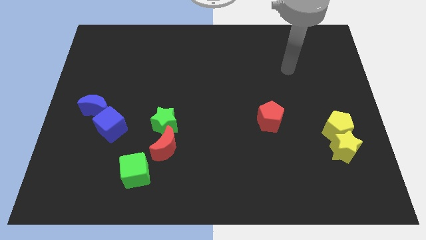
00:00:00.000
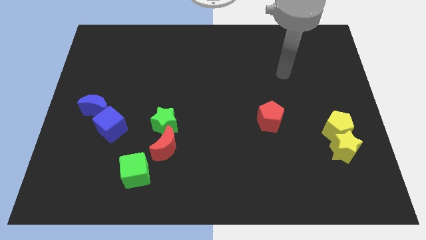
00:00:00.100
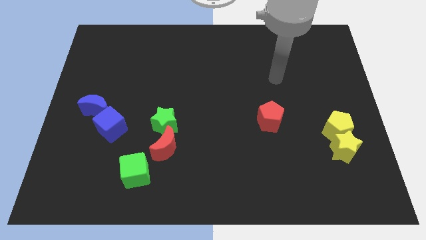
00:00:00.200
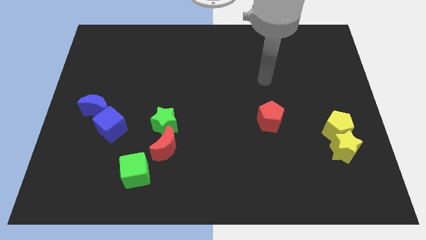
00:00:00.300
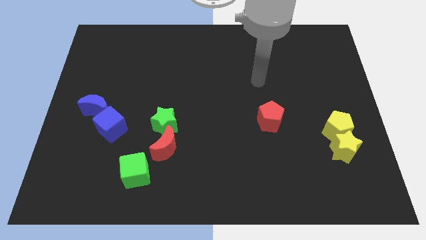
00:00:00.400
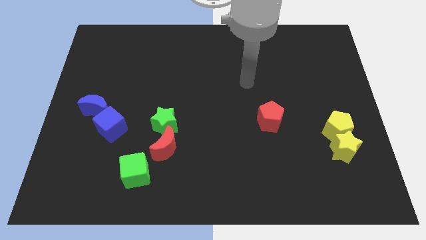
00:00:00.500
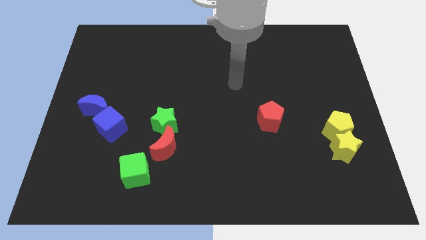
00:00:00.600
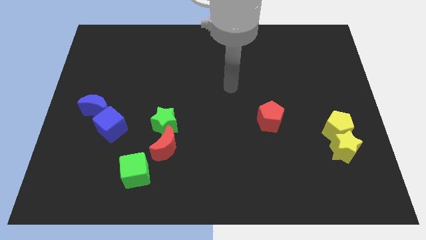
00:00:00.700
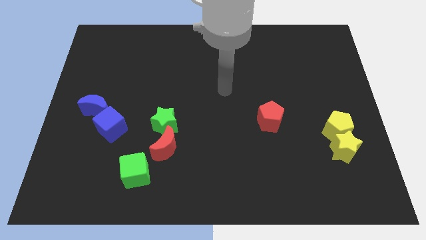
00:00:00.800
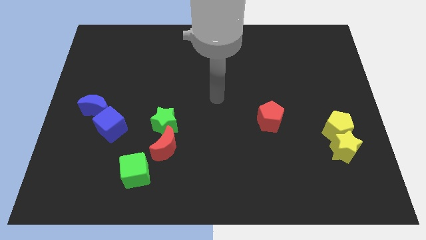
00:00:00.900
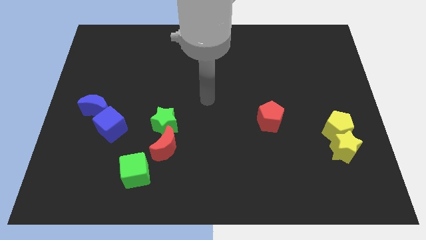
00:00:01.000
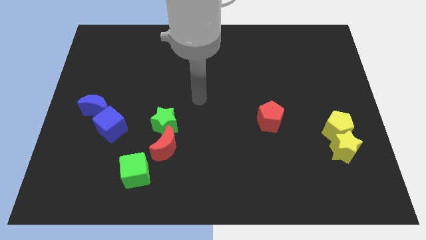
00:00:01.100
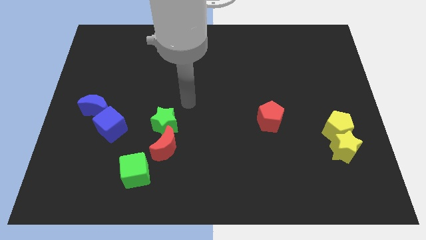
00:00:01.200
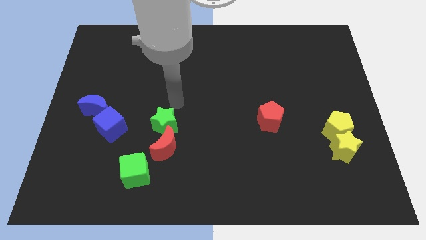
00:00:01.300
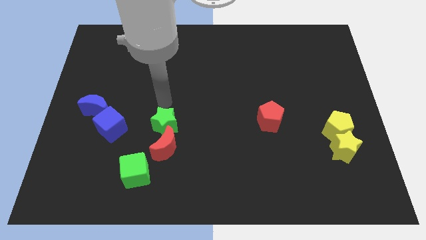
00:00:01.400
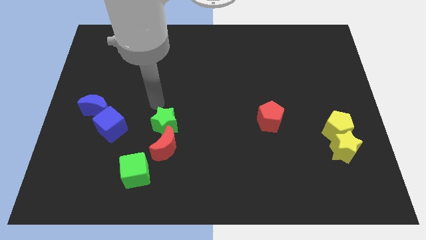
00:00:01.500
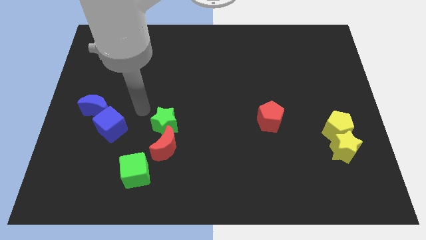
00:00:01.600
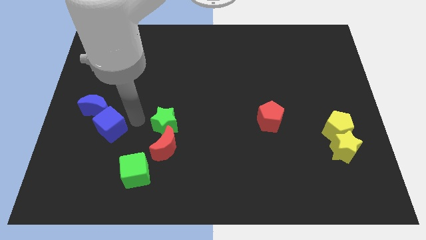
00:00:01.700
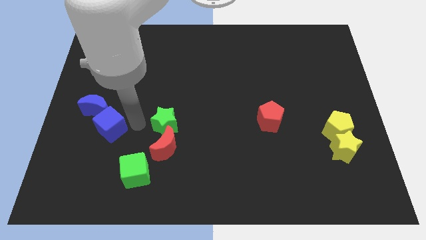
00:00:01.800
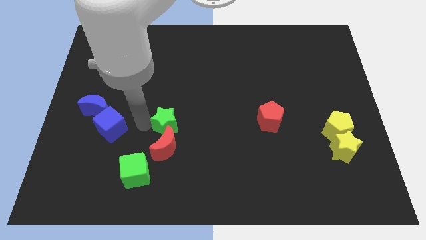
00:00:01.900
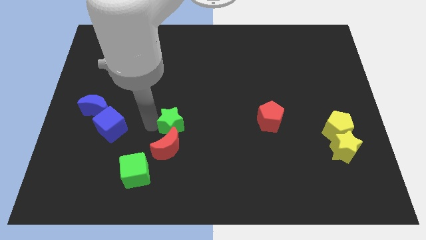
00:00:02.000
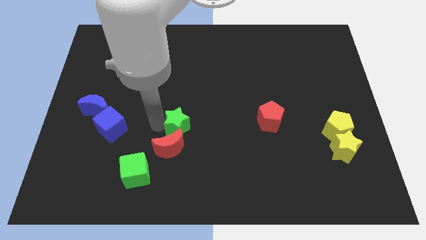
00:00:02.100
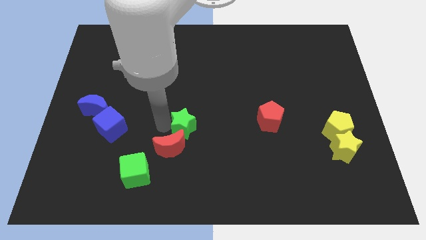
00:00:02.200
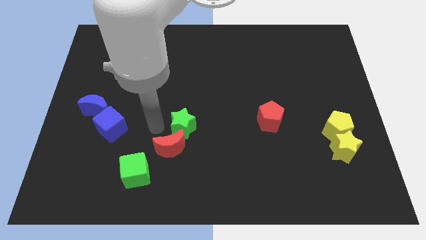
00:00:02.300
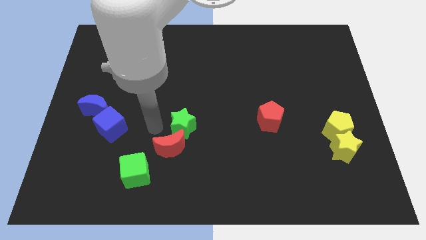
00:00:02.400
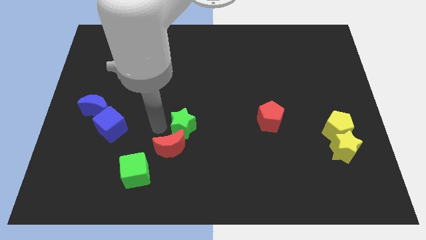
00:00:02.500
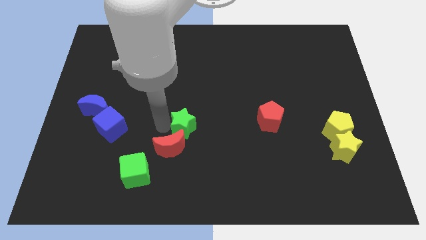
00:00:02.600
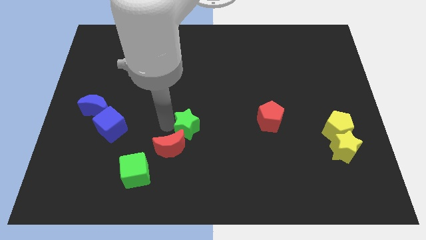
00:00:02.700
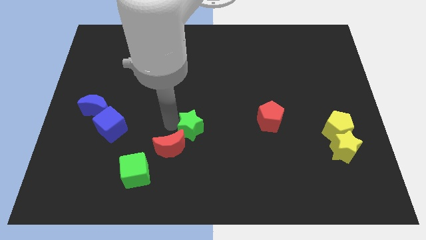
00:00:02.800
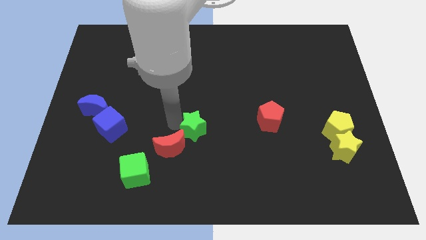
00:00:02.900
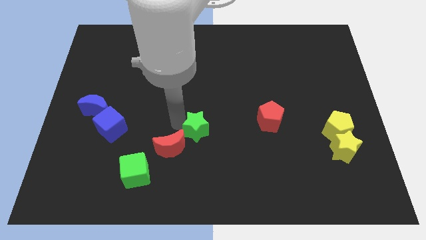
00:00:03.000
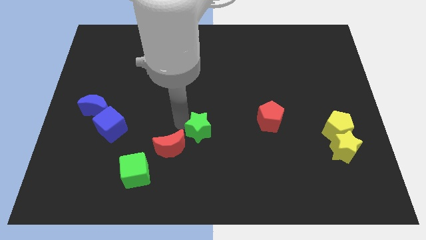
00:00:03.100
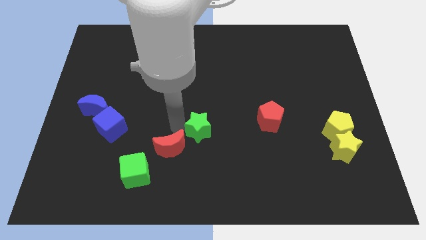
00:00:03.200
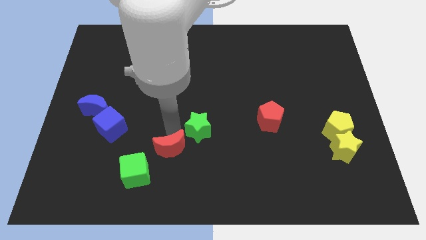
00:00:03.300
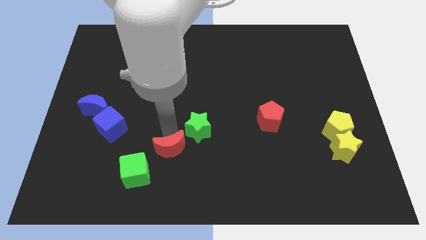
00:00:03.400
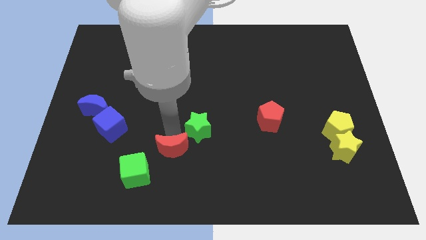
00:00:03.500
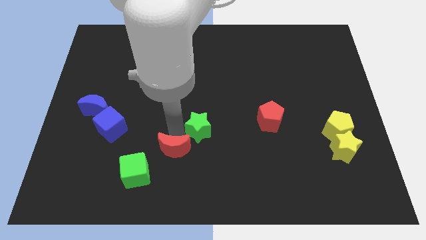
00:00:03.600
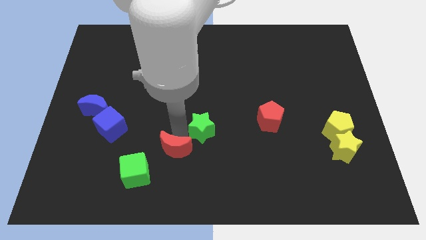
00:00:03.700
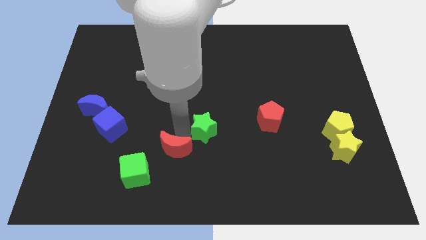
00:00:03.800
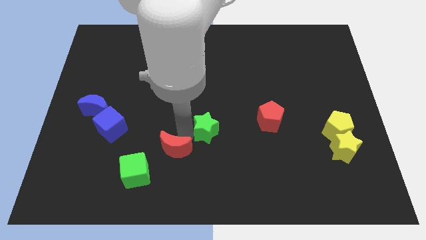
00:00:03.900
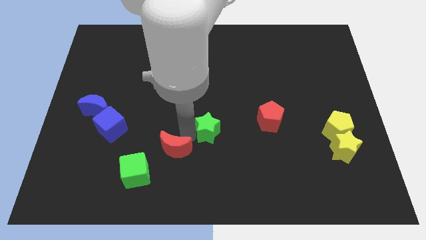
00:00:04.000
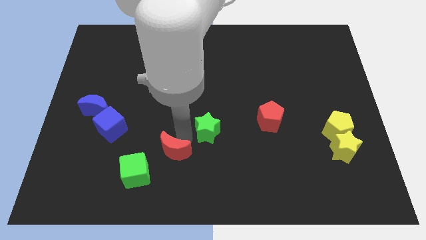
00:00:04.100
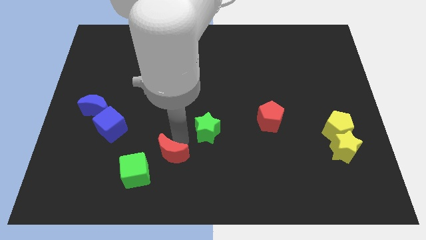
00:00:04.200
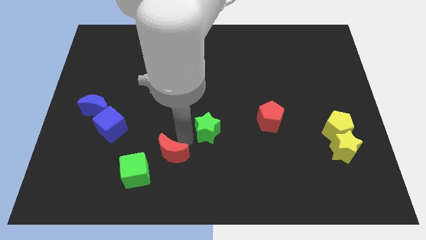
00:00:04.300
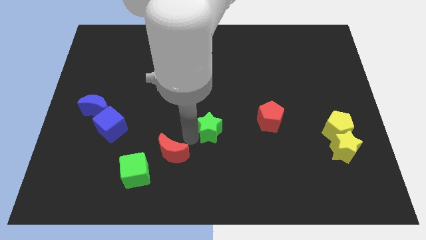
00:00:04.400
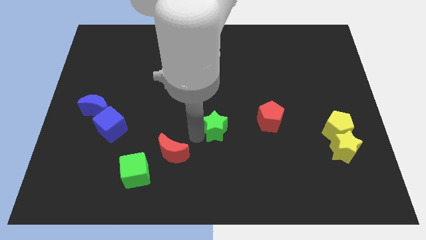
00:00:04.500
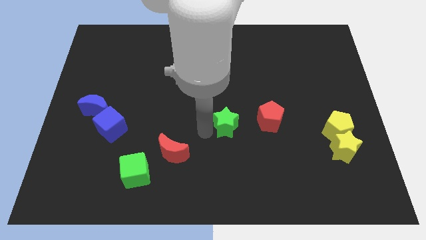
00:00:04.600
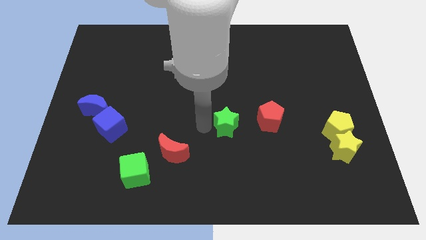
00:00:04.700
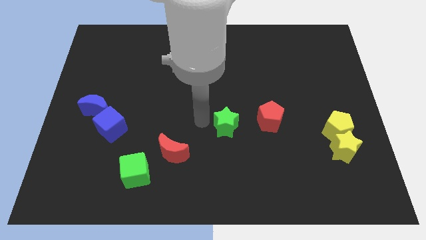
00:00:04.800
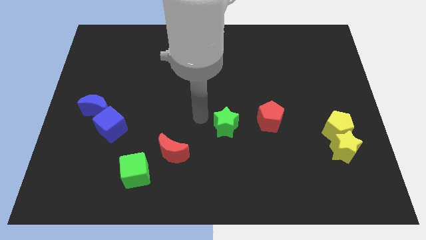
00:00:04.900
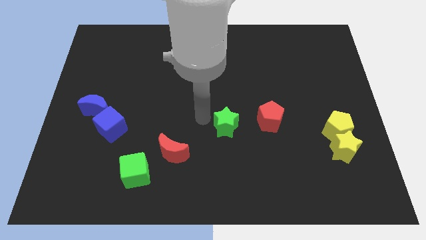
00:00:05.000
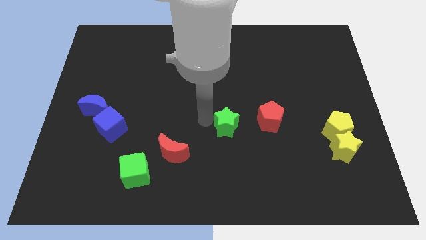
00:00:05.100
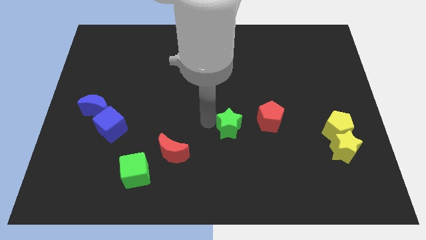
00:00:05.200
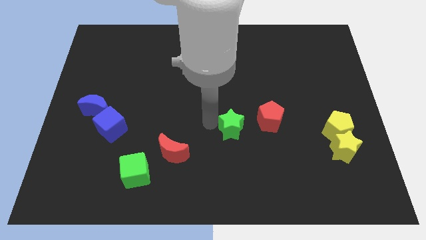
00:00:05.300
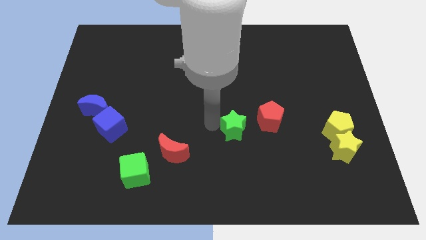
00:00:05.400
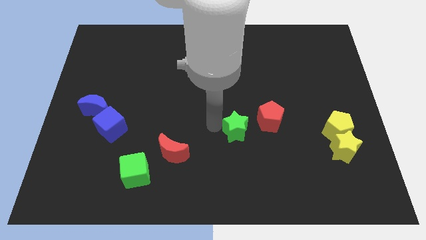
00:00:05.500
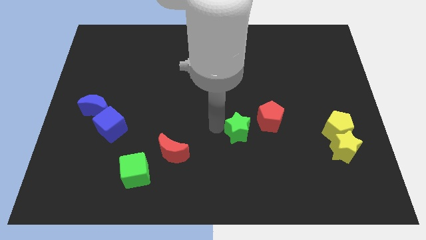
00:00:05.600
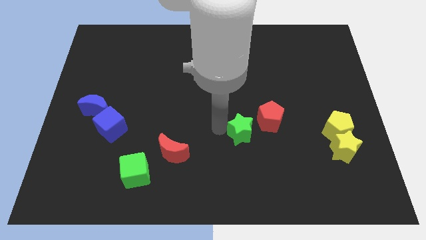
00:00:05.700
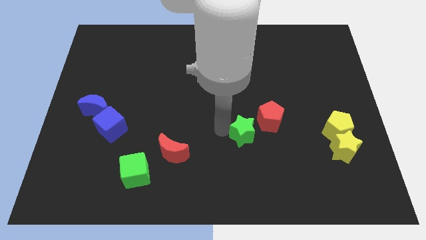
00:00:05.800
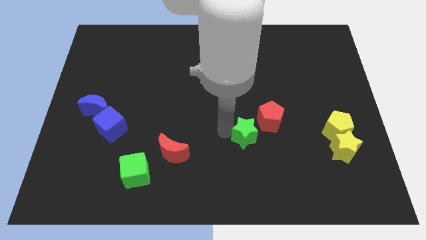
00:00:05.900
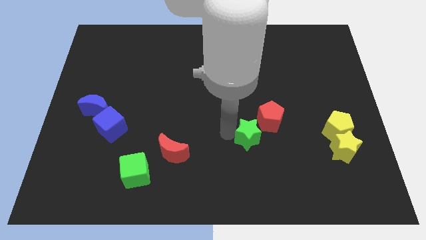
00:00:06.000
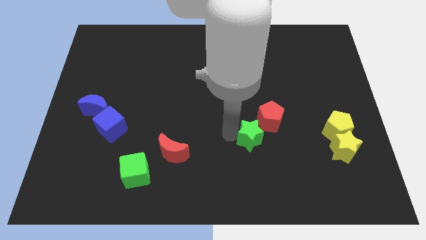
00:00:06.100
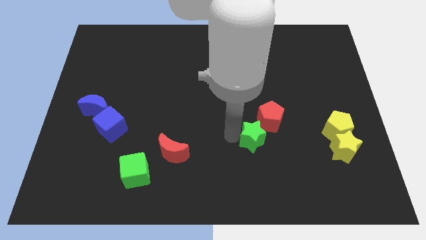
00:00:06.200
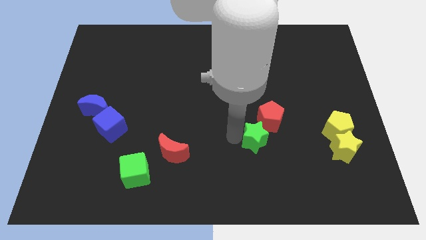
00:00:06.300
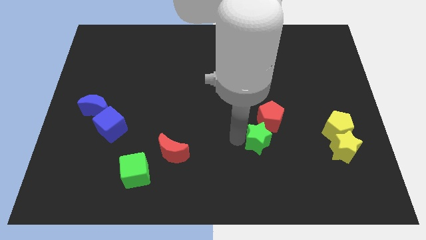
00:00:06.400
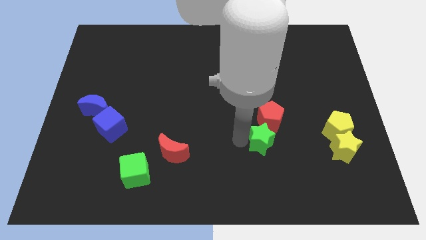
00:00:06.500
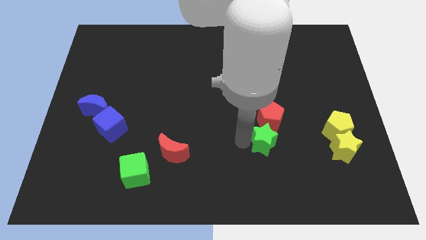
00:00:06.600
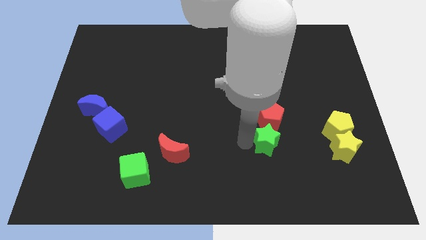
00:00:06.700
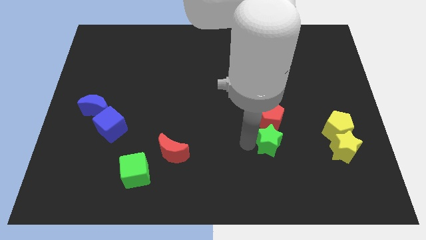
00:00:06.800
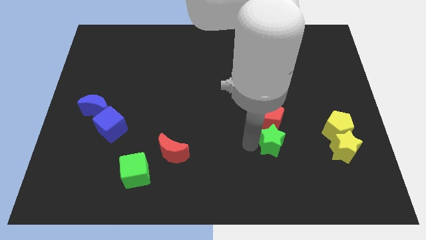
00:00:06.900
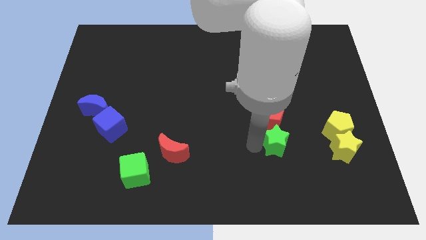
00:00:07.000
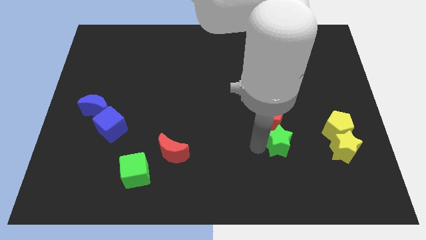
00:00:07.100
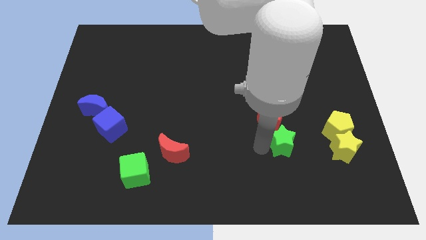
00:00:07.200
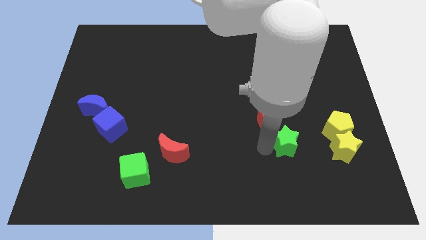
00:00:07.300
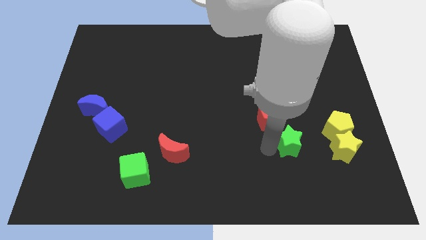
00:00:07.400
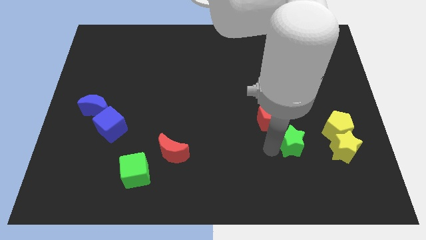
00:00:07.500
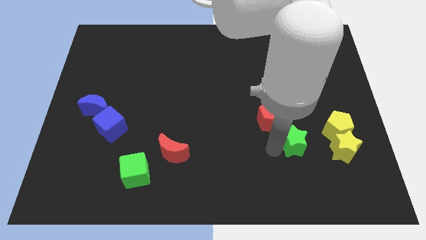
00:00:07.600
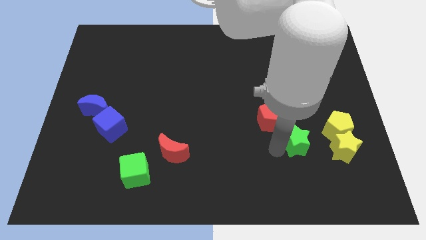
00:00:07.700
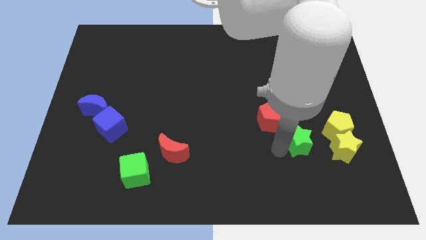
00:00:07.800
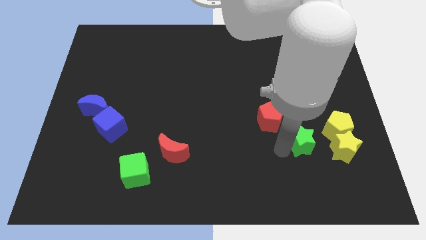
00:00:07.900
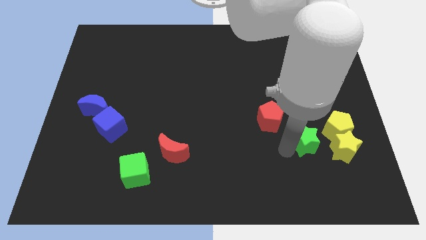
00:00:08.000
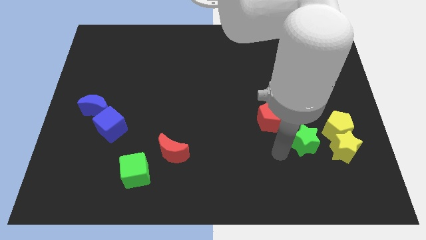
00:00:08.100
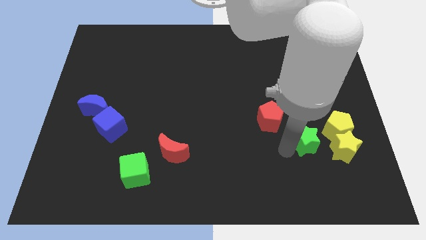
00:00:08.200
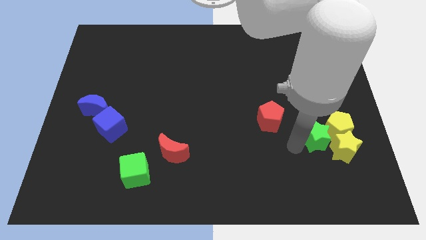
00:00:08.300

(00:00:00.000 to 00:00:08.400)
slide the green star next to the yellow pentagon
